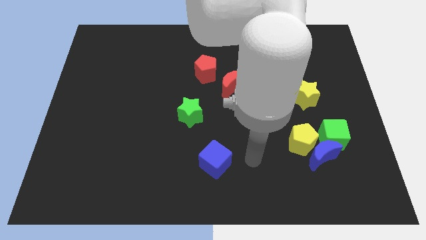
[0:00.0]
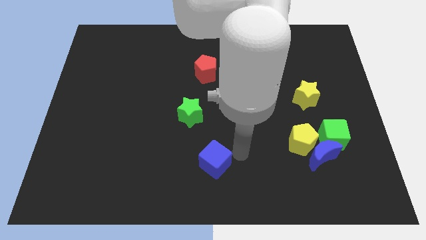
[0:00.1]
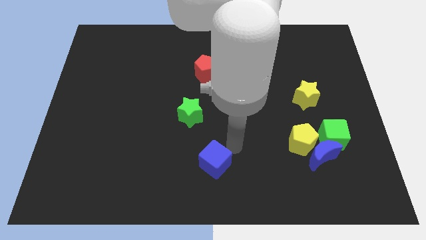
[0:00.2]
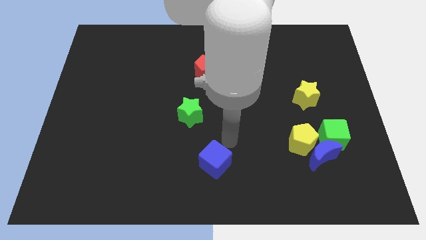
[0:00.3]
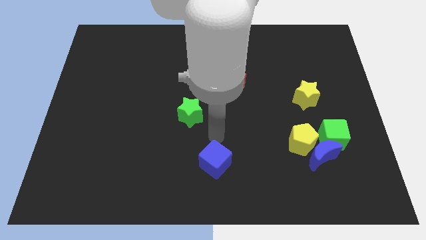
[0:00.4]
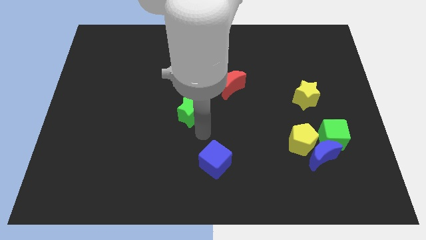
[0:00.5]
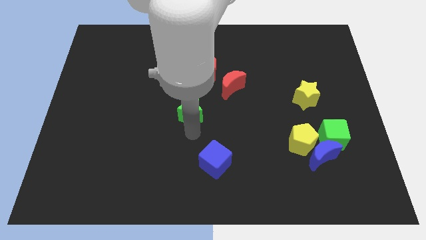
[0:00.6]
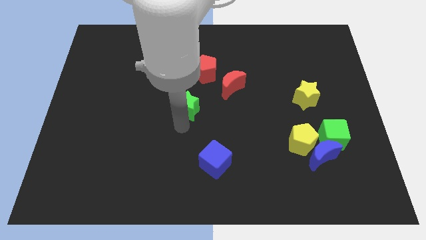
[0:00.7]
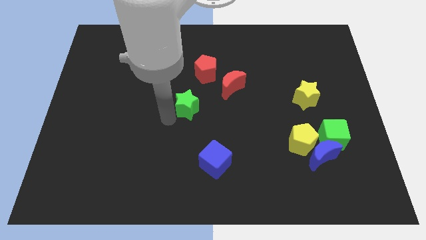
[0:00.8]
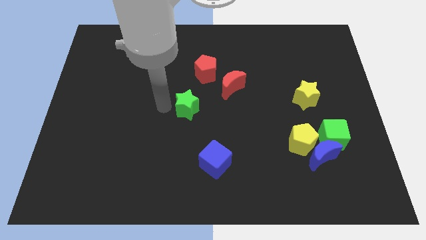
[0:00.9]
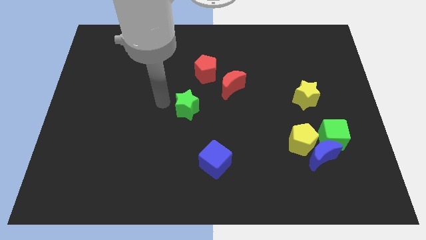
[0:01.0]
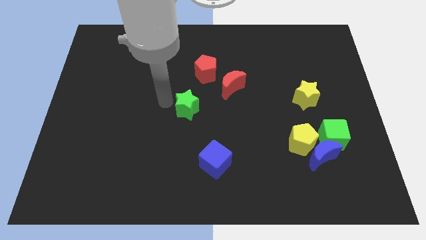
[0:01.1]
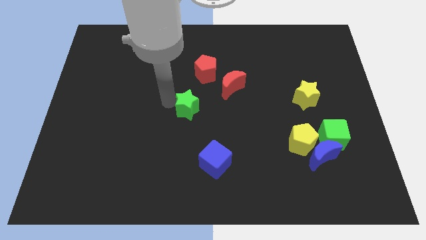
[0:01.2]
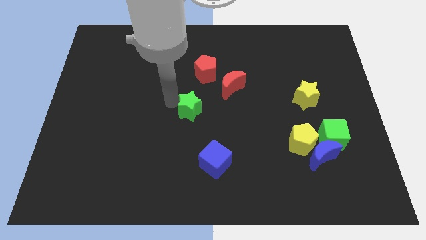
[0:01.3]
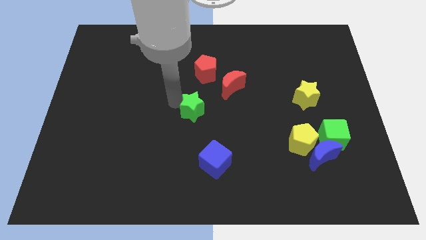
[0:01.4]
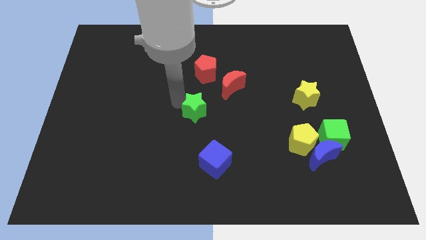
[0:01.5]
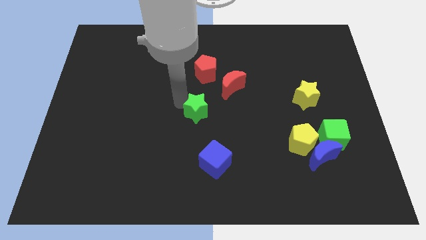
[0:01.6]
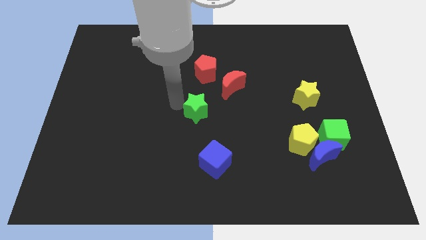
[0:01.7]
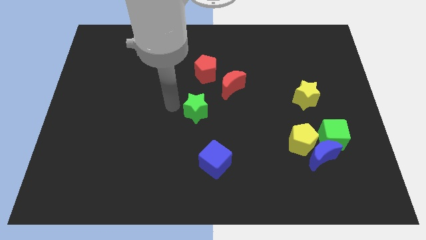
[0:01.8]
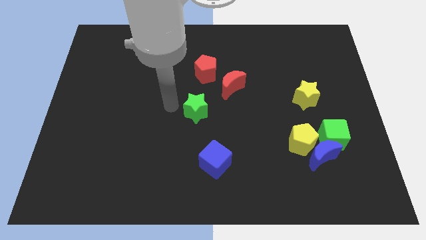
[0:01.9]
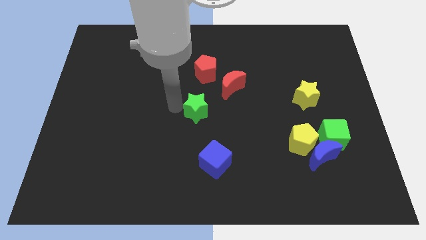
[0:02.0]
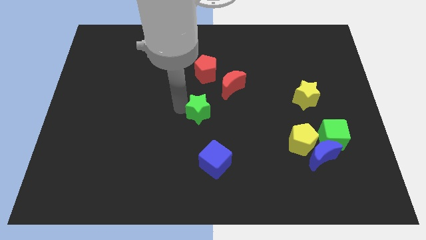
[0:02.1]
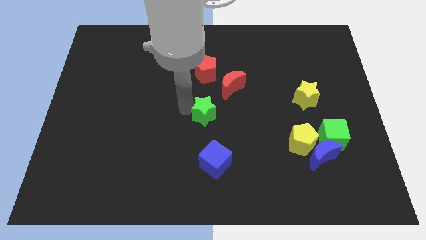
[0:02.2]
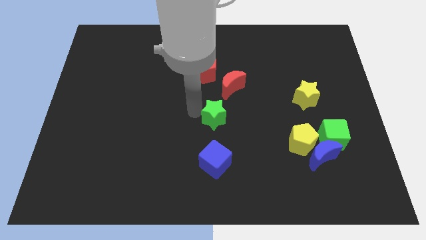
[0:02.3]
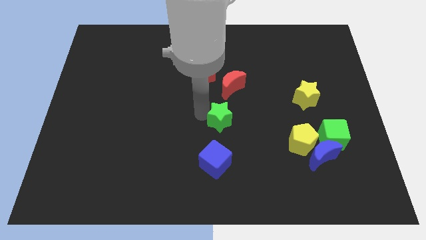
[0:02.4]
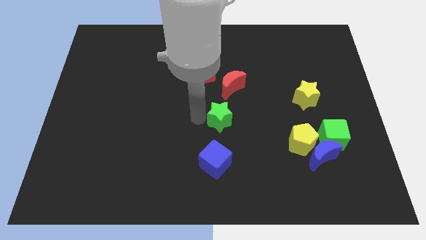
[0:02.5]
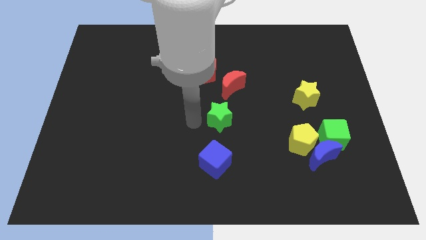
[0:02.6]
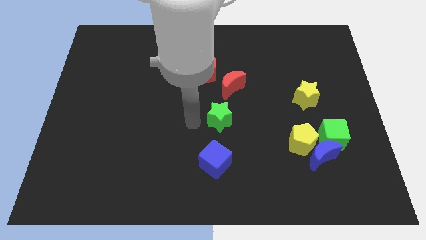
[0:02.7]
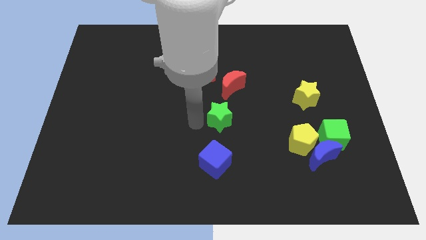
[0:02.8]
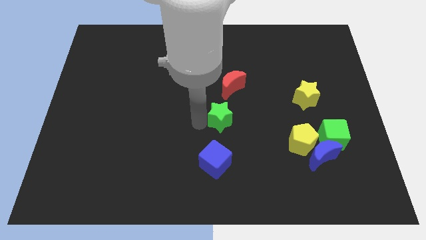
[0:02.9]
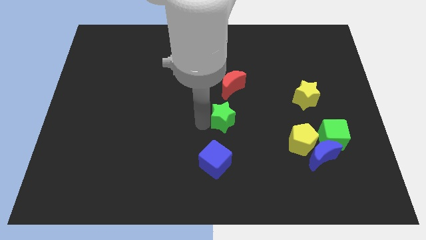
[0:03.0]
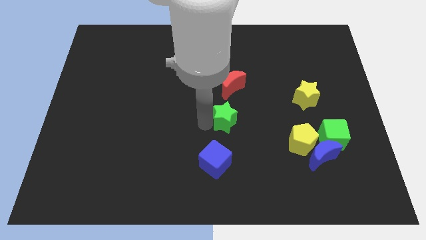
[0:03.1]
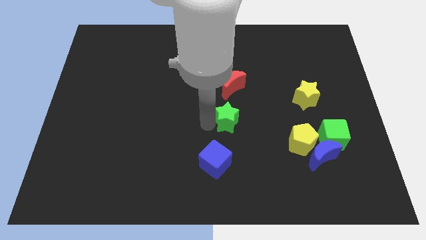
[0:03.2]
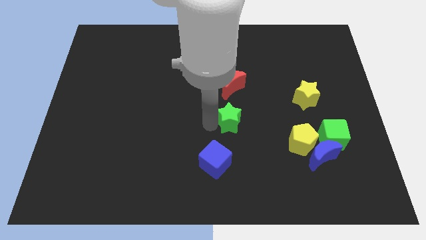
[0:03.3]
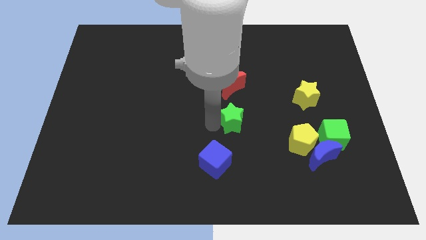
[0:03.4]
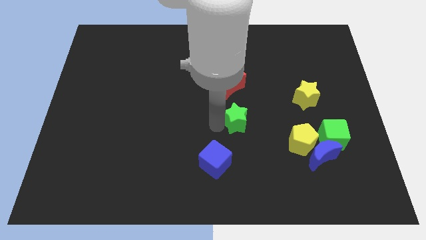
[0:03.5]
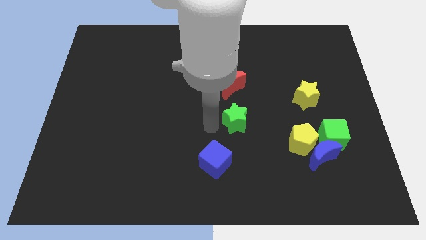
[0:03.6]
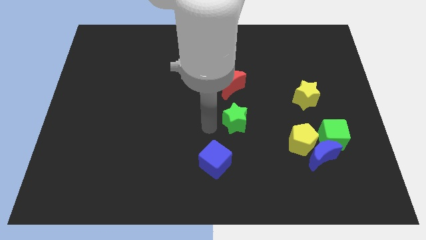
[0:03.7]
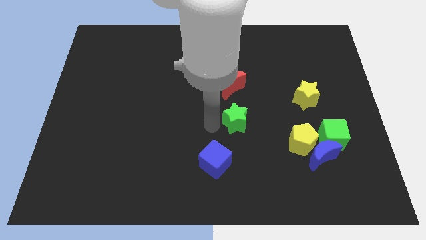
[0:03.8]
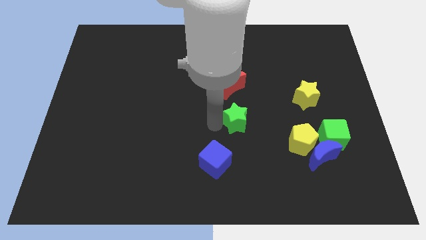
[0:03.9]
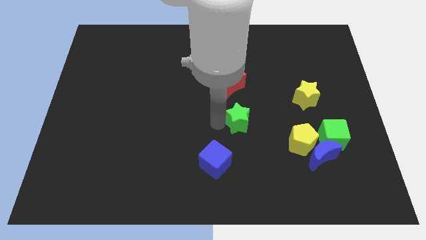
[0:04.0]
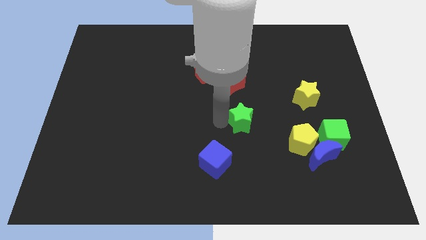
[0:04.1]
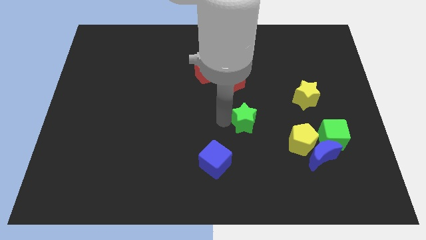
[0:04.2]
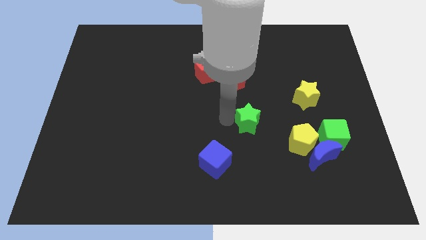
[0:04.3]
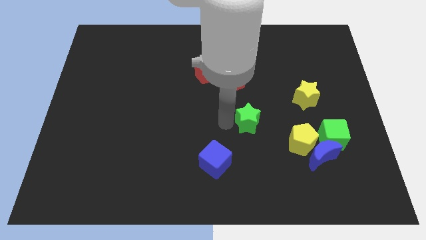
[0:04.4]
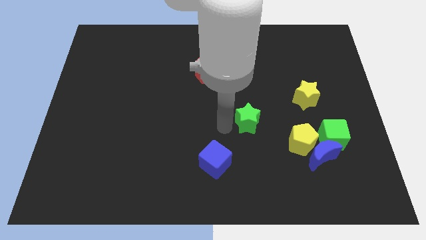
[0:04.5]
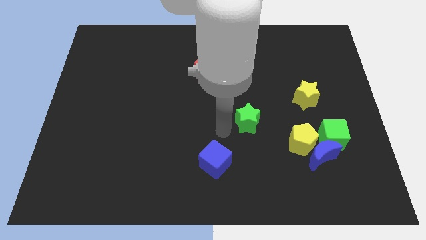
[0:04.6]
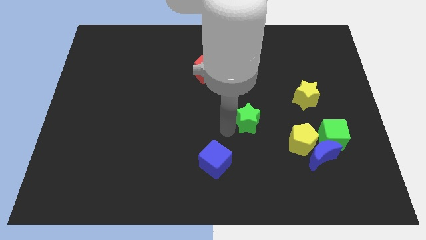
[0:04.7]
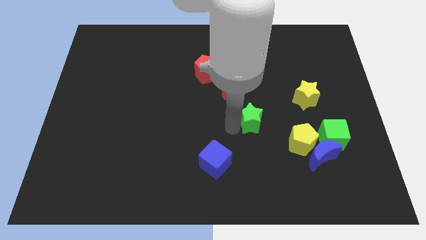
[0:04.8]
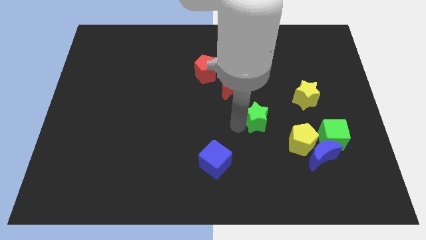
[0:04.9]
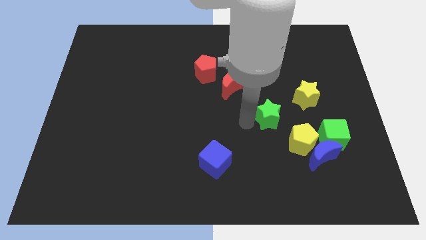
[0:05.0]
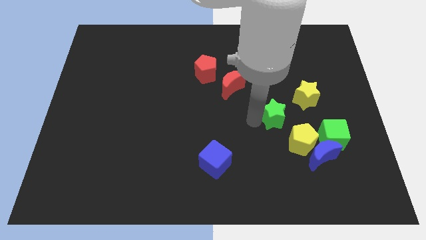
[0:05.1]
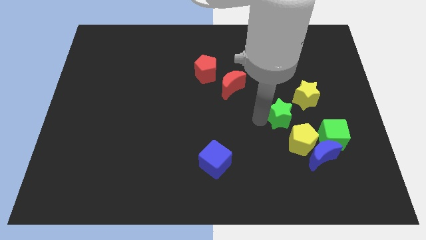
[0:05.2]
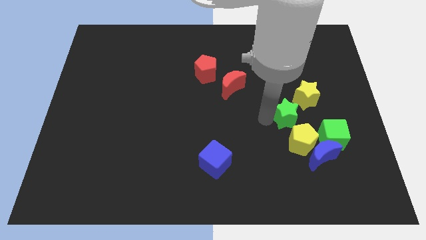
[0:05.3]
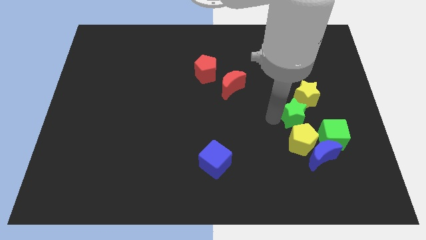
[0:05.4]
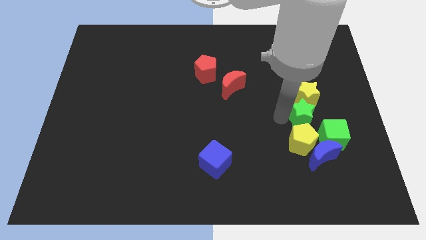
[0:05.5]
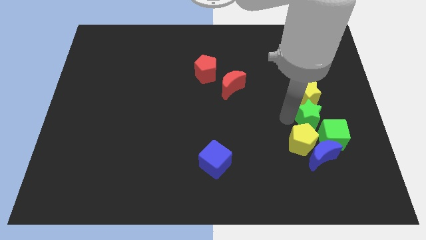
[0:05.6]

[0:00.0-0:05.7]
move the green star to the top of the green cube

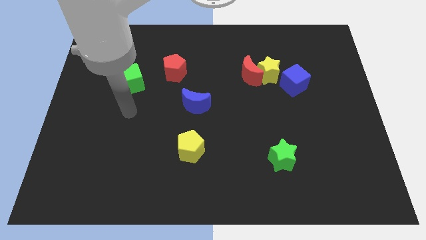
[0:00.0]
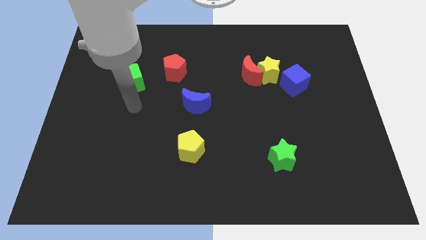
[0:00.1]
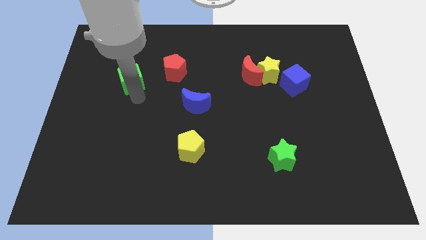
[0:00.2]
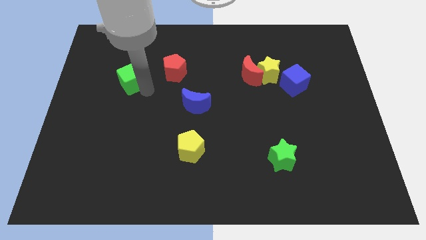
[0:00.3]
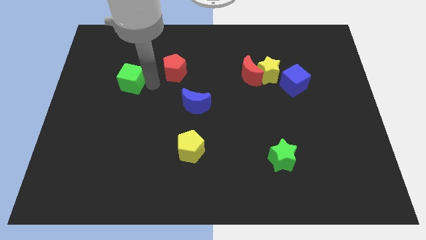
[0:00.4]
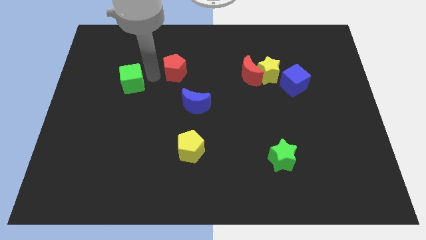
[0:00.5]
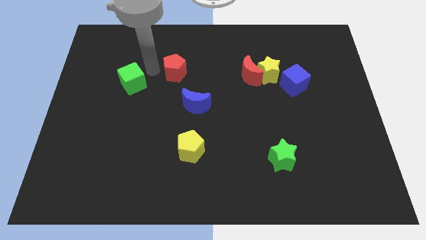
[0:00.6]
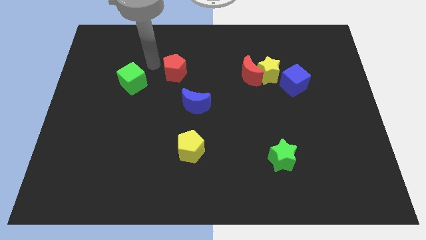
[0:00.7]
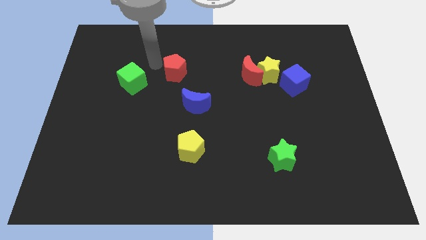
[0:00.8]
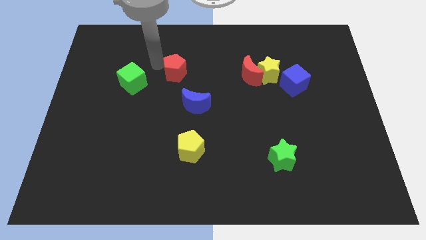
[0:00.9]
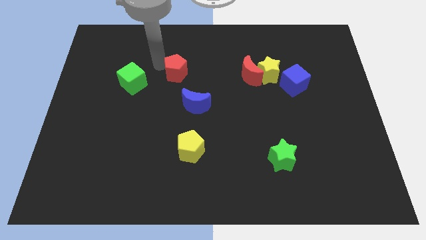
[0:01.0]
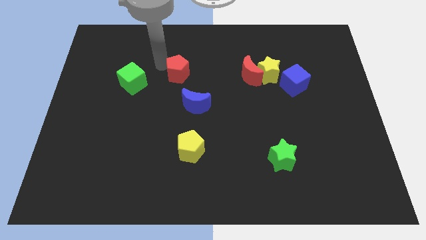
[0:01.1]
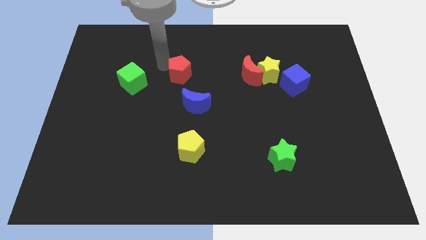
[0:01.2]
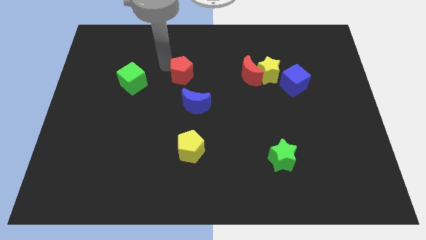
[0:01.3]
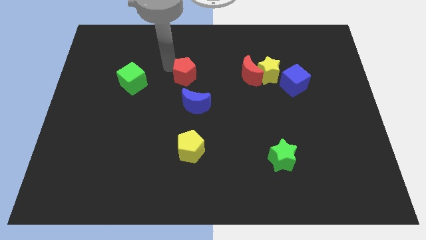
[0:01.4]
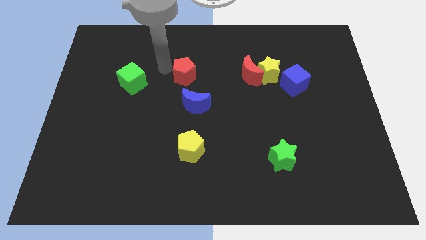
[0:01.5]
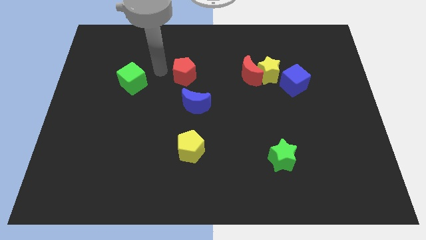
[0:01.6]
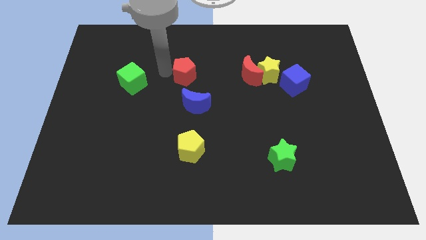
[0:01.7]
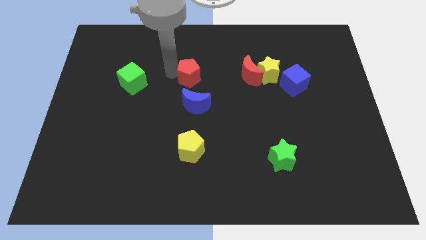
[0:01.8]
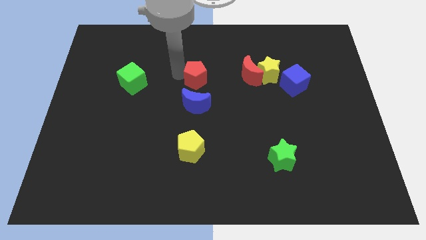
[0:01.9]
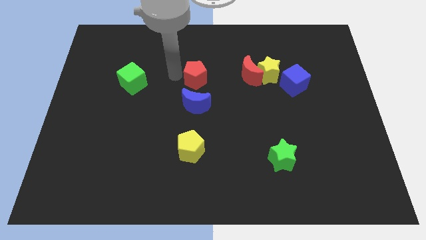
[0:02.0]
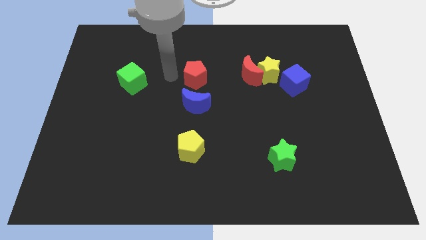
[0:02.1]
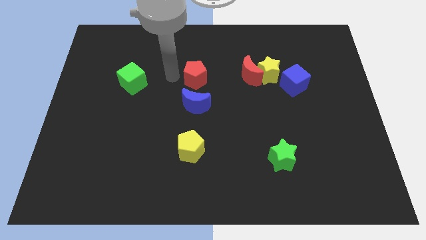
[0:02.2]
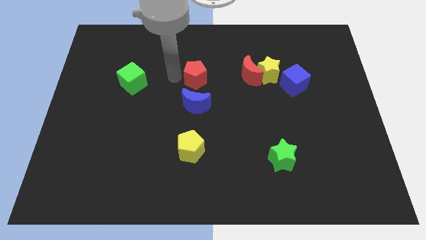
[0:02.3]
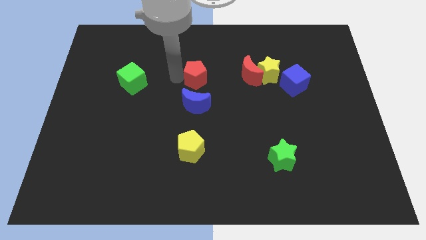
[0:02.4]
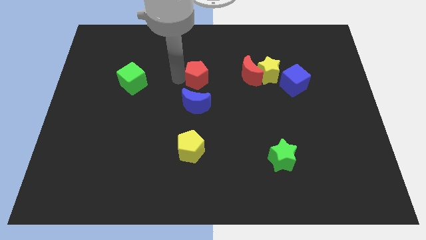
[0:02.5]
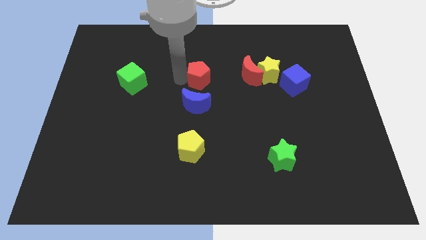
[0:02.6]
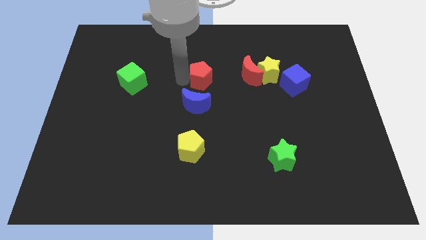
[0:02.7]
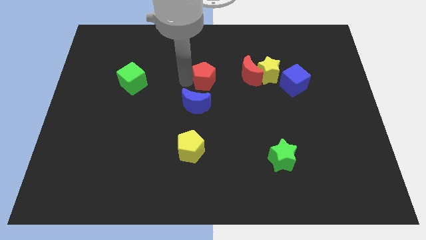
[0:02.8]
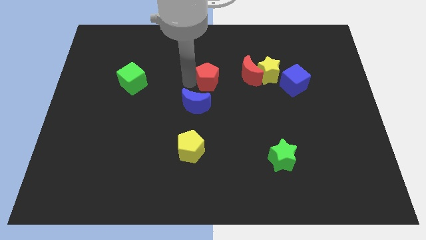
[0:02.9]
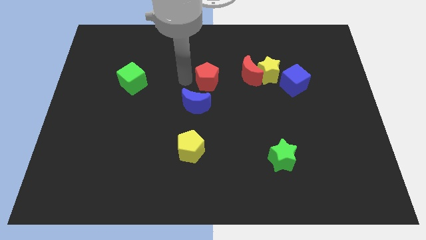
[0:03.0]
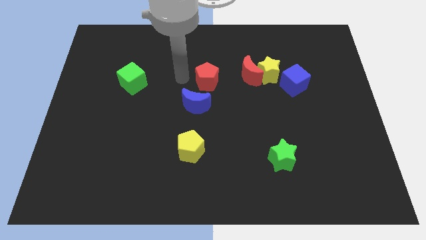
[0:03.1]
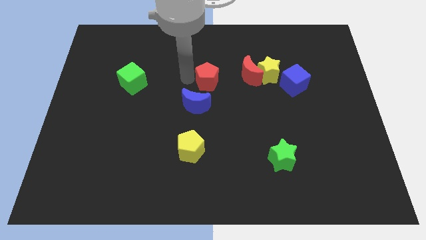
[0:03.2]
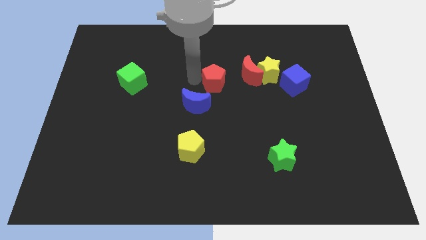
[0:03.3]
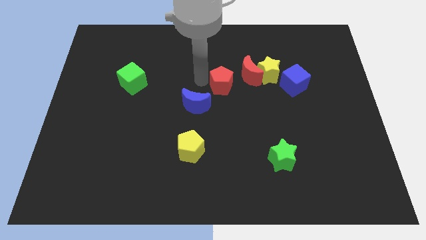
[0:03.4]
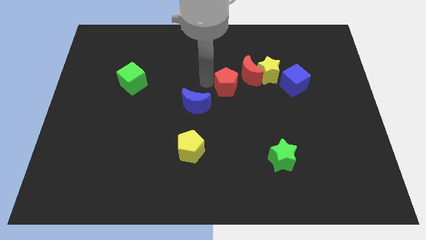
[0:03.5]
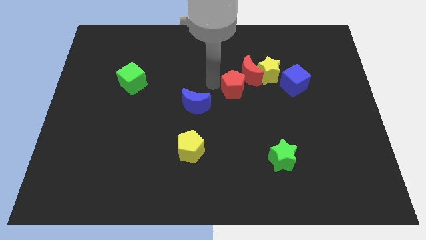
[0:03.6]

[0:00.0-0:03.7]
put the red pentagon to the left side of the blue cube
